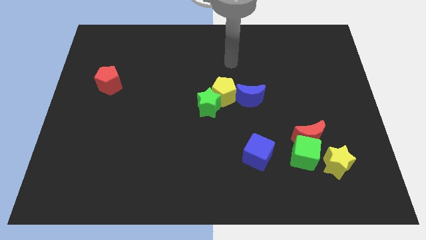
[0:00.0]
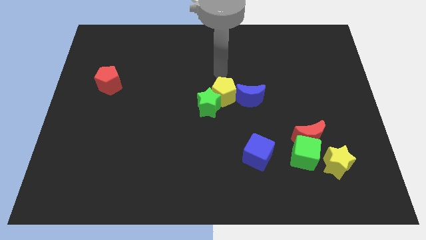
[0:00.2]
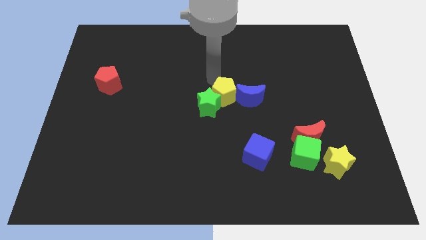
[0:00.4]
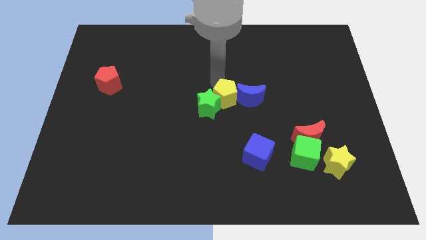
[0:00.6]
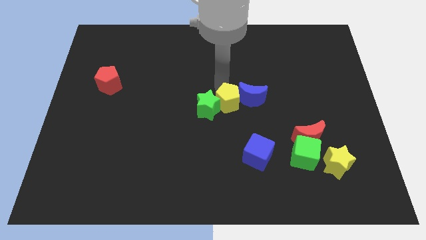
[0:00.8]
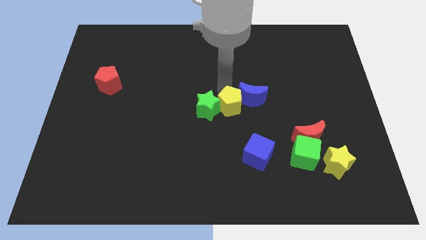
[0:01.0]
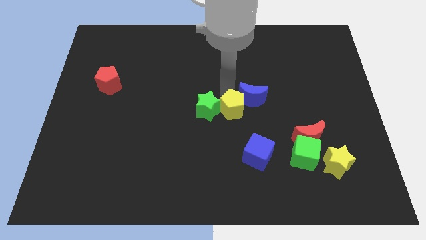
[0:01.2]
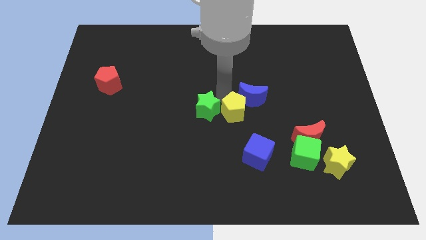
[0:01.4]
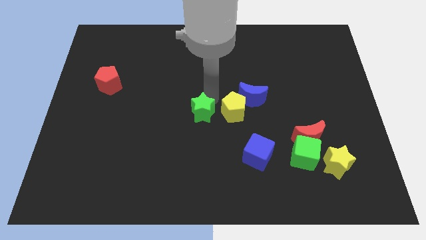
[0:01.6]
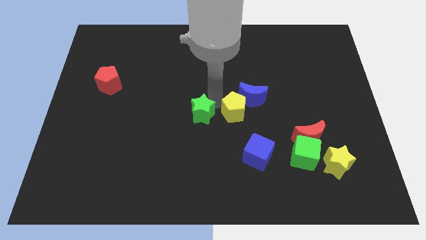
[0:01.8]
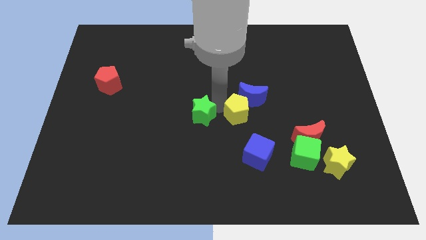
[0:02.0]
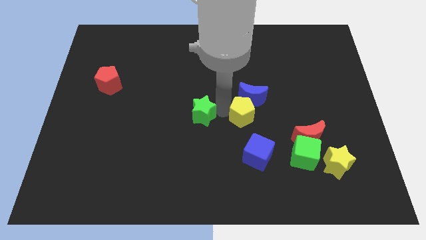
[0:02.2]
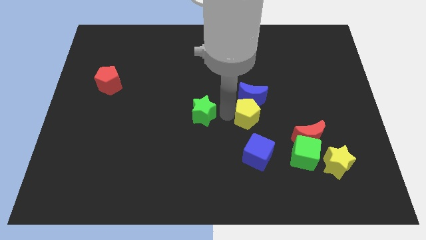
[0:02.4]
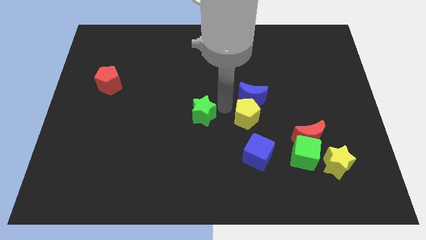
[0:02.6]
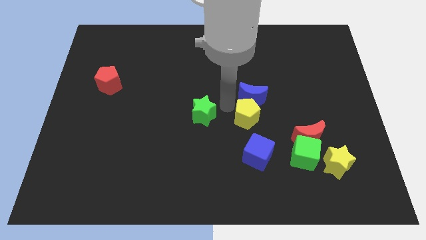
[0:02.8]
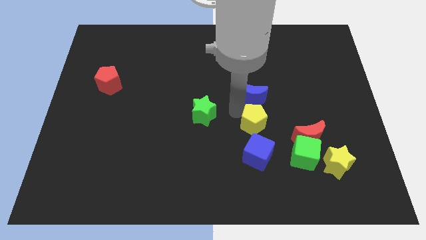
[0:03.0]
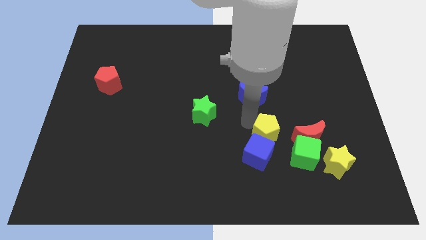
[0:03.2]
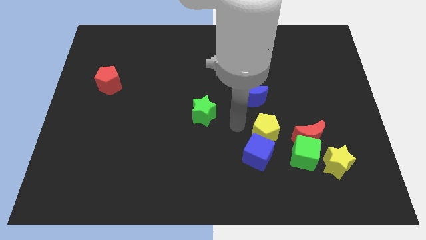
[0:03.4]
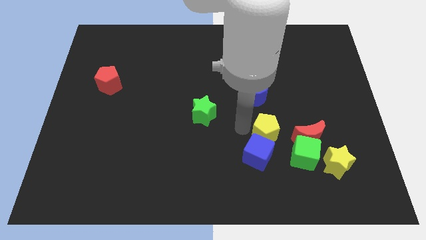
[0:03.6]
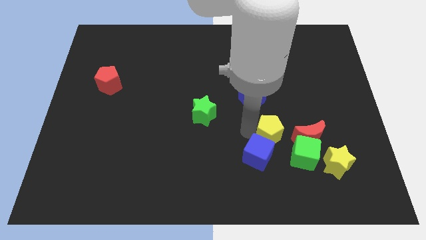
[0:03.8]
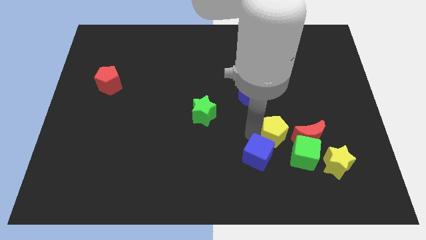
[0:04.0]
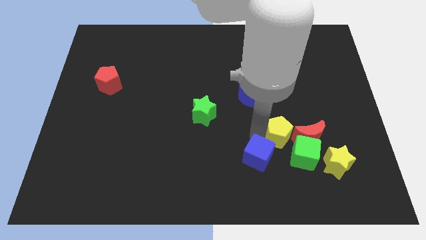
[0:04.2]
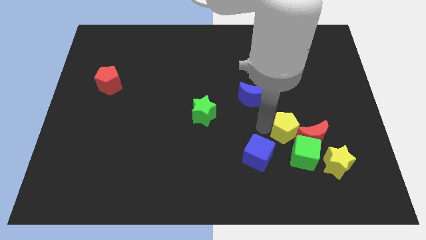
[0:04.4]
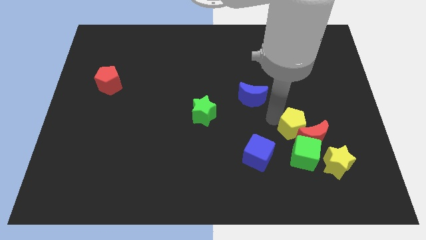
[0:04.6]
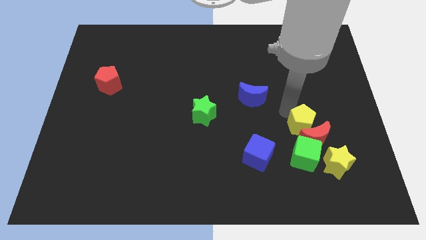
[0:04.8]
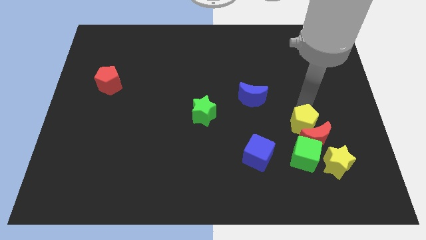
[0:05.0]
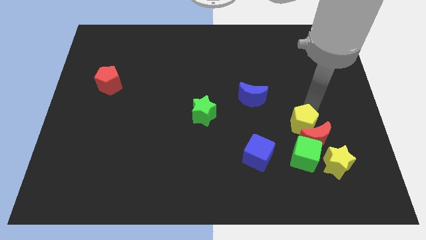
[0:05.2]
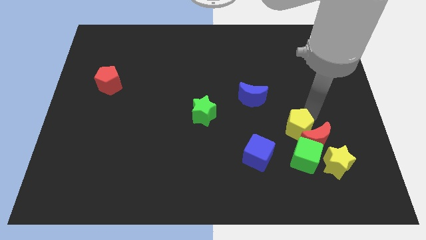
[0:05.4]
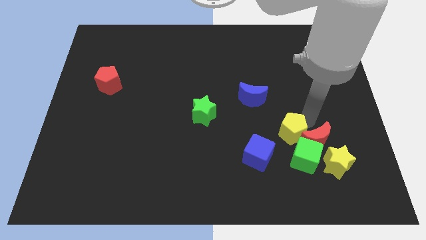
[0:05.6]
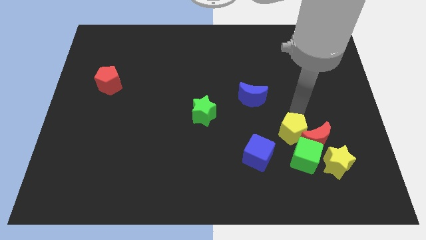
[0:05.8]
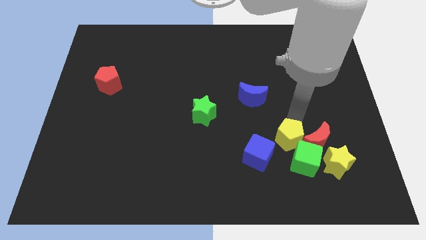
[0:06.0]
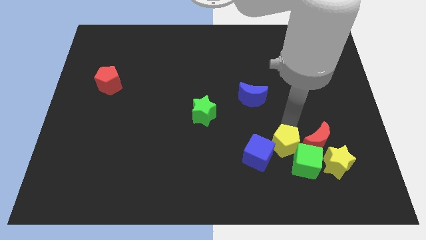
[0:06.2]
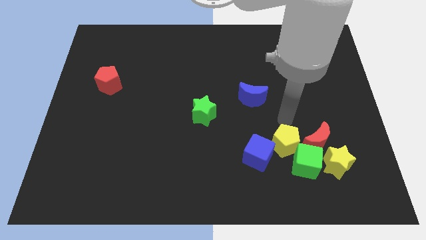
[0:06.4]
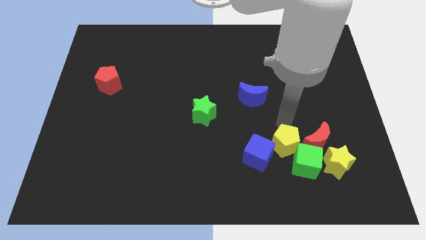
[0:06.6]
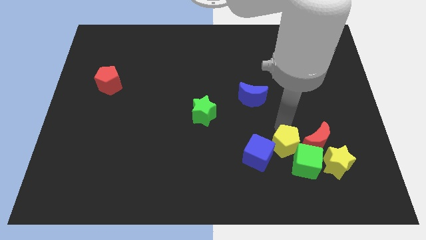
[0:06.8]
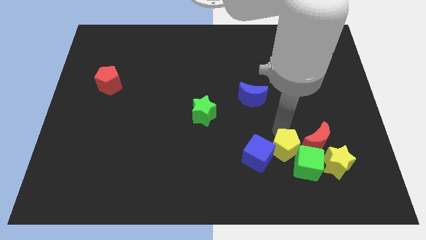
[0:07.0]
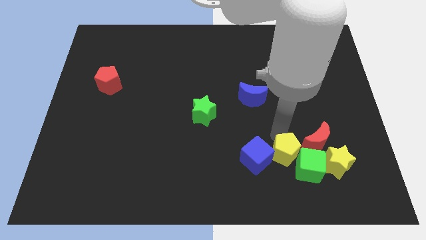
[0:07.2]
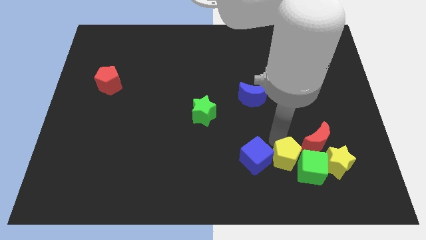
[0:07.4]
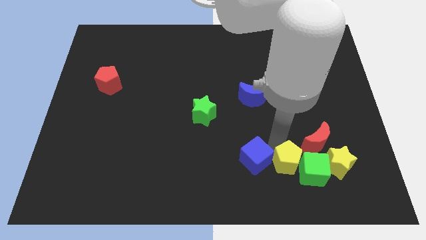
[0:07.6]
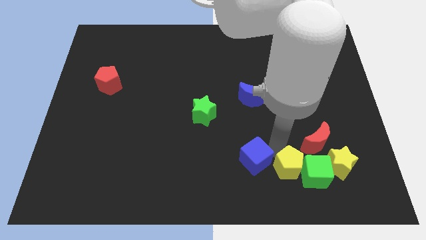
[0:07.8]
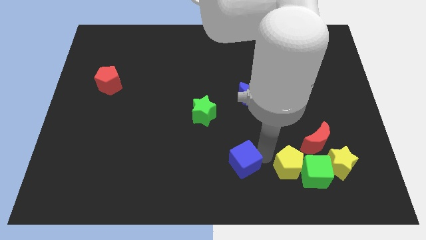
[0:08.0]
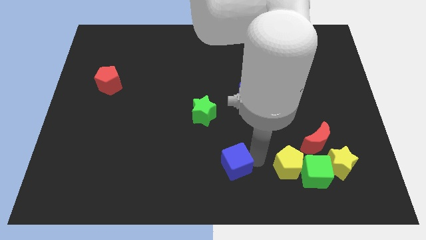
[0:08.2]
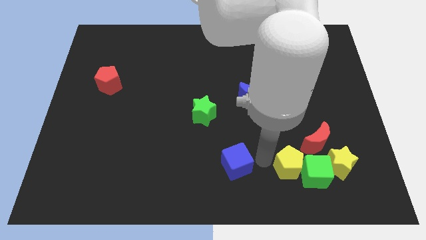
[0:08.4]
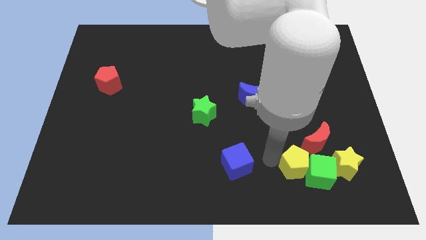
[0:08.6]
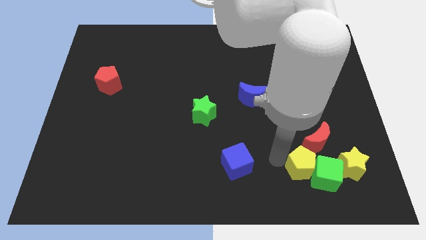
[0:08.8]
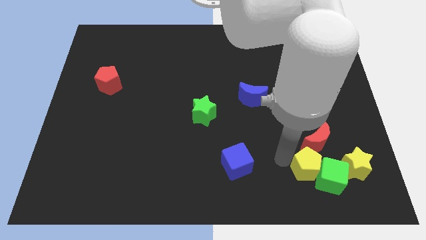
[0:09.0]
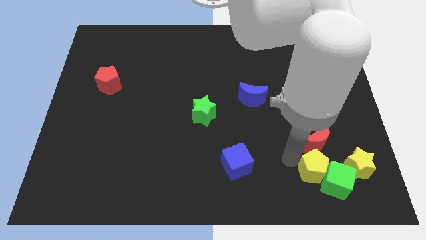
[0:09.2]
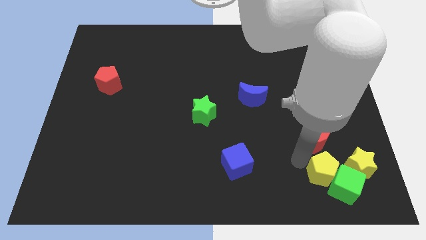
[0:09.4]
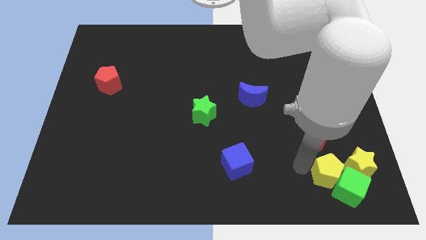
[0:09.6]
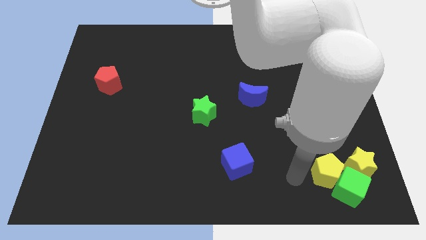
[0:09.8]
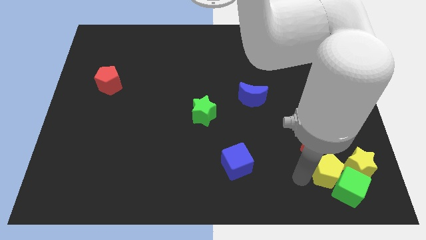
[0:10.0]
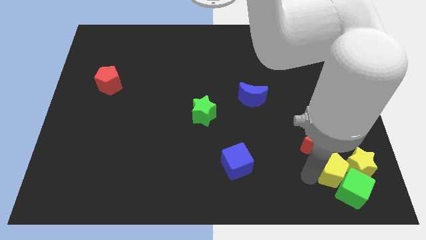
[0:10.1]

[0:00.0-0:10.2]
slide the yellow pentagon close to the yellow star

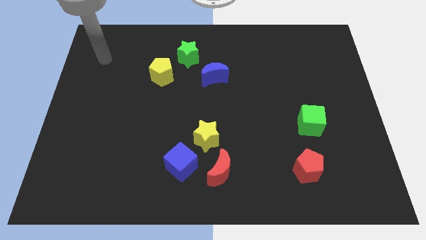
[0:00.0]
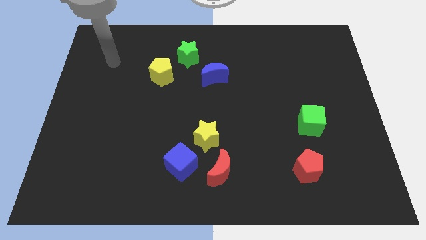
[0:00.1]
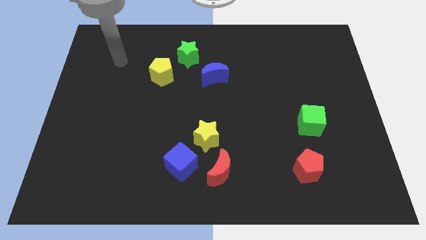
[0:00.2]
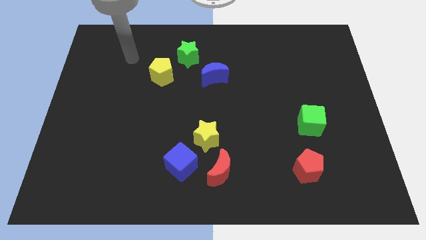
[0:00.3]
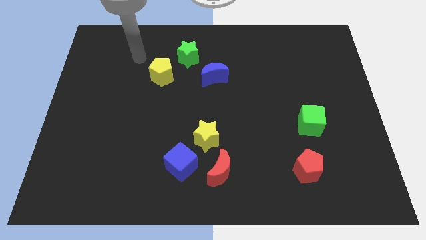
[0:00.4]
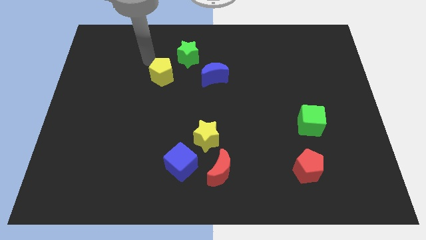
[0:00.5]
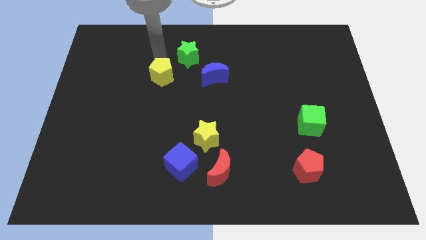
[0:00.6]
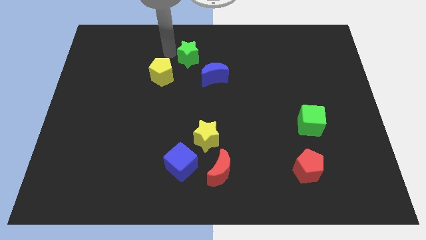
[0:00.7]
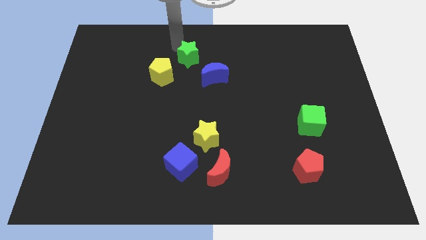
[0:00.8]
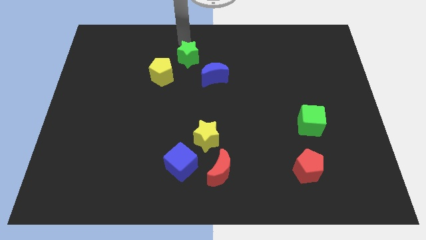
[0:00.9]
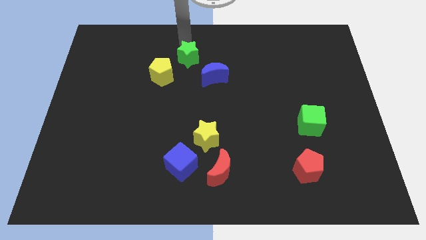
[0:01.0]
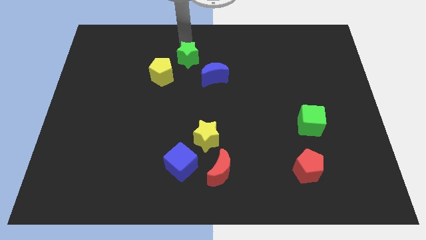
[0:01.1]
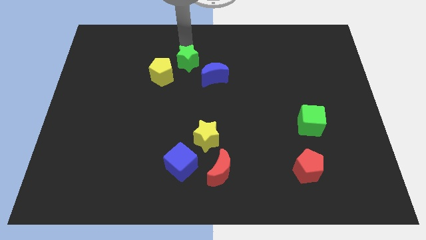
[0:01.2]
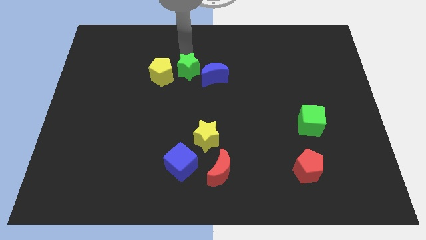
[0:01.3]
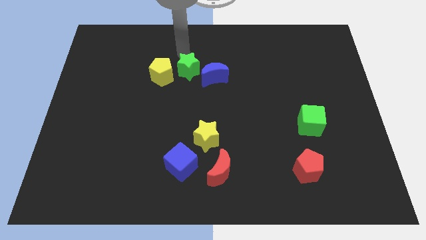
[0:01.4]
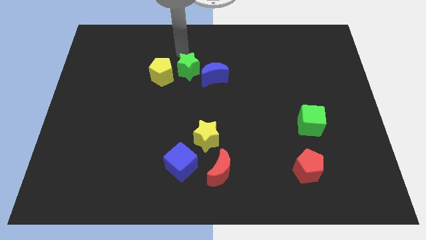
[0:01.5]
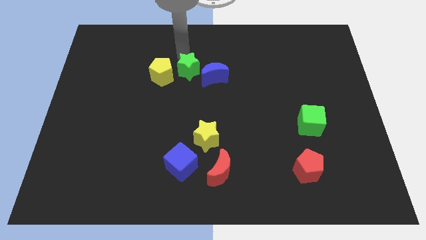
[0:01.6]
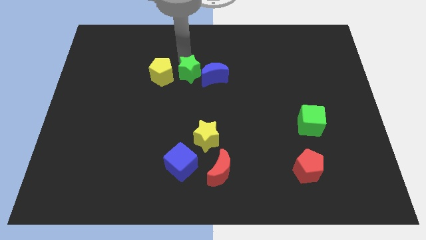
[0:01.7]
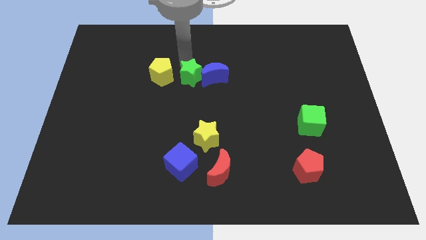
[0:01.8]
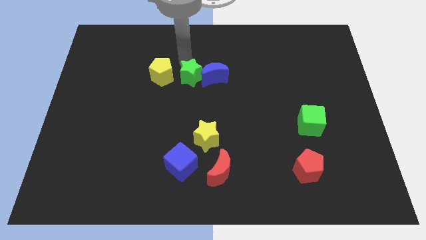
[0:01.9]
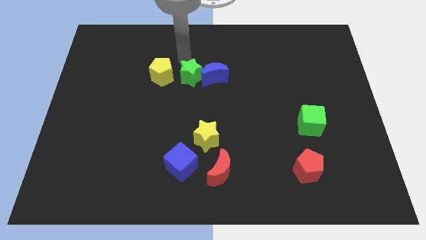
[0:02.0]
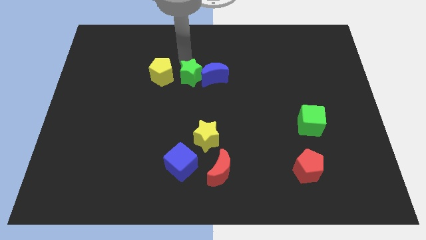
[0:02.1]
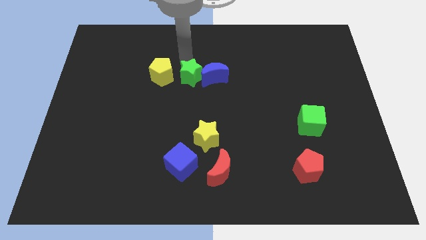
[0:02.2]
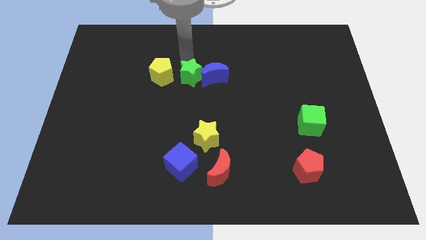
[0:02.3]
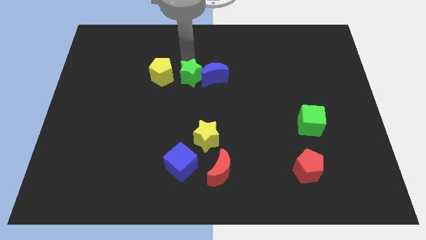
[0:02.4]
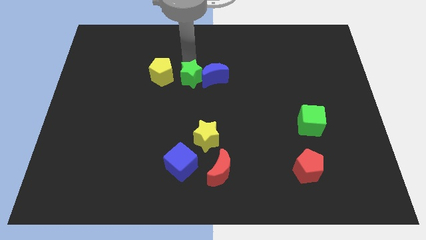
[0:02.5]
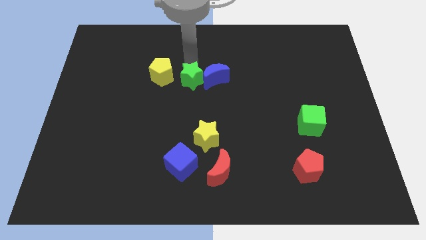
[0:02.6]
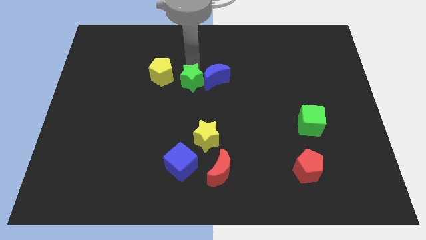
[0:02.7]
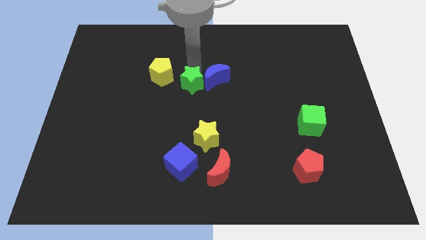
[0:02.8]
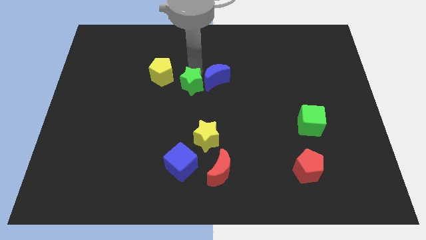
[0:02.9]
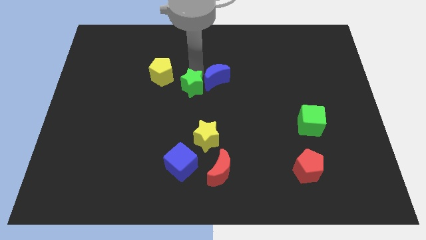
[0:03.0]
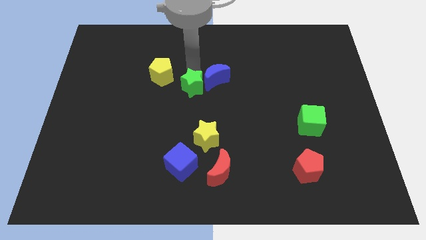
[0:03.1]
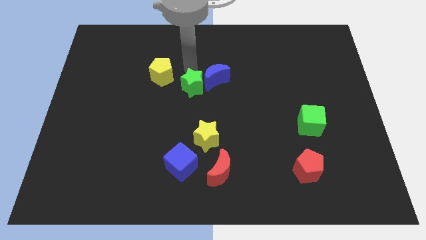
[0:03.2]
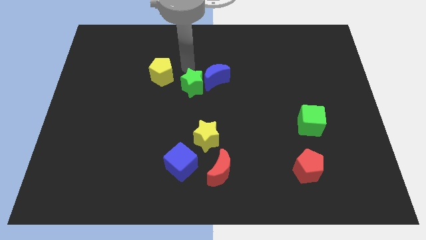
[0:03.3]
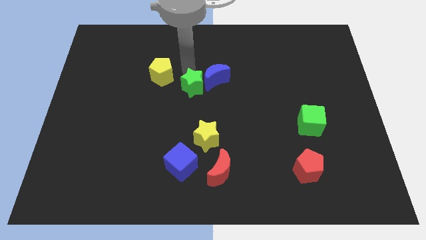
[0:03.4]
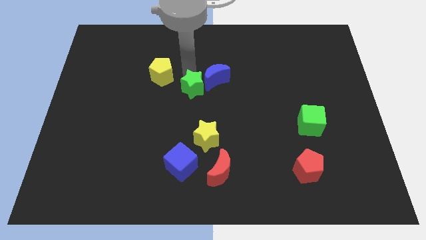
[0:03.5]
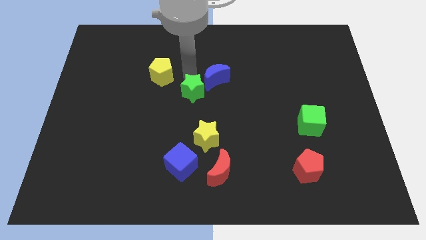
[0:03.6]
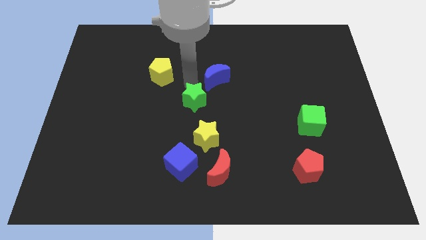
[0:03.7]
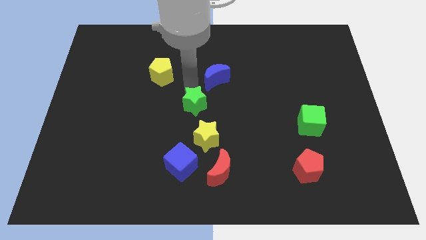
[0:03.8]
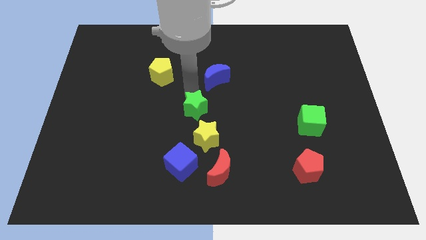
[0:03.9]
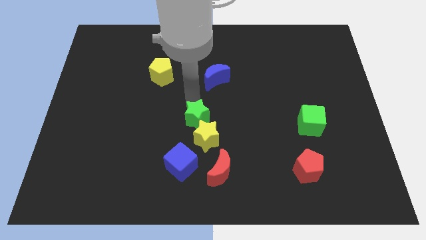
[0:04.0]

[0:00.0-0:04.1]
put the green star close to the yellow star
